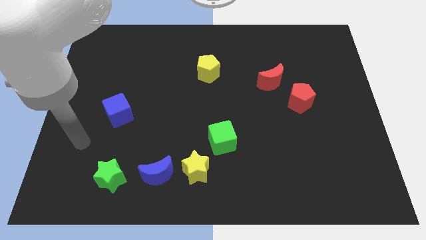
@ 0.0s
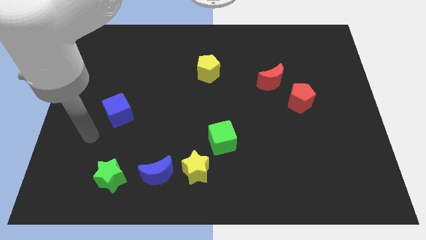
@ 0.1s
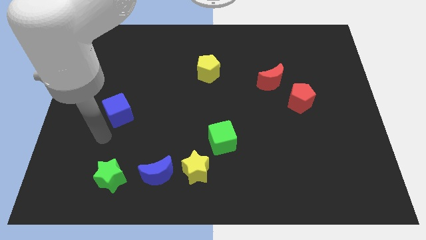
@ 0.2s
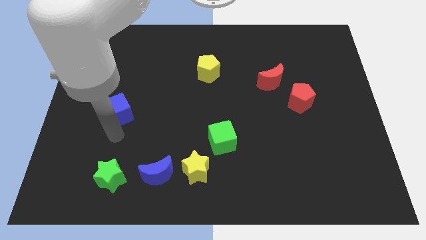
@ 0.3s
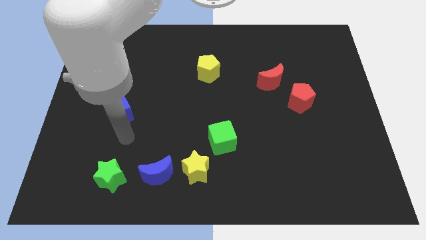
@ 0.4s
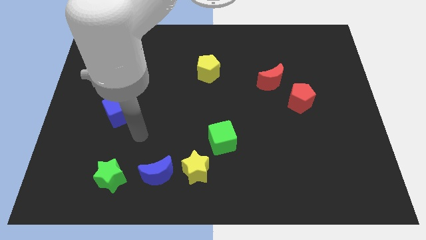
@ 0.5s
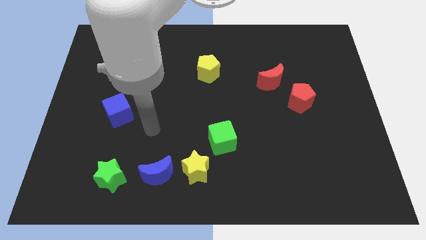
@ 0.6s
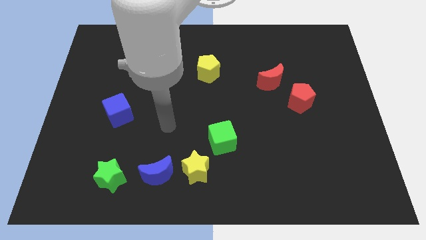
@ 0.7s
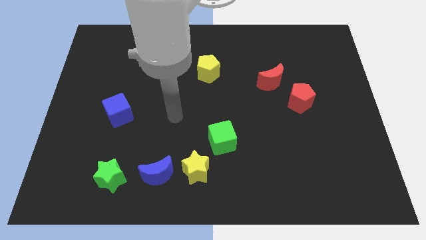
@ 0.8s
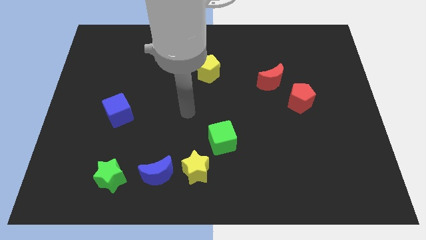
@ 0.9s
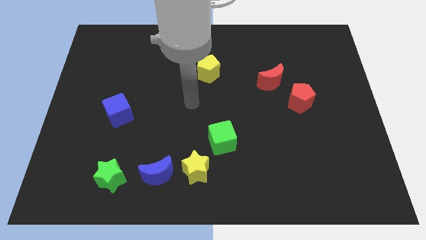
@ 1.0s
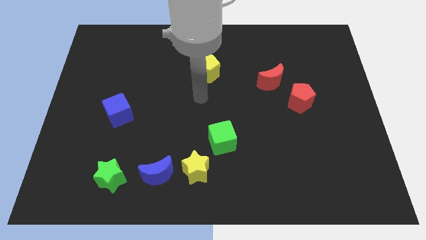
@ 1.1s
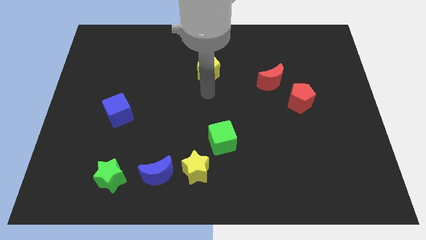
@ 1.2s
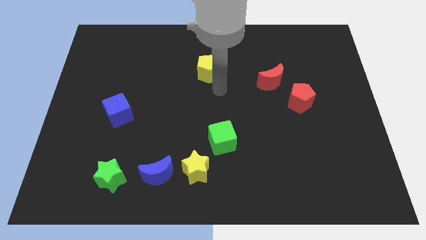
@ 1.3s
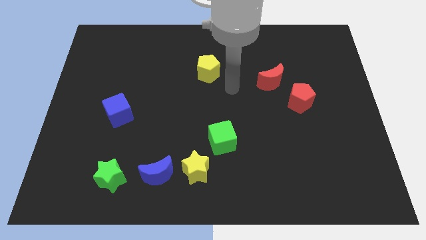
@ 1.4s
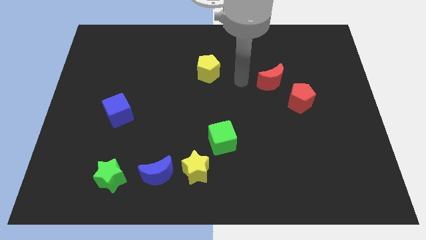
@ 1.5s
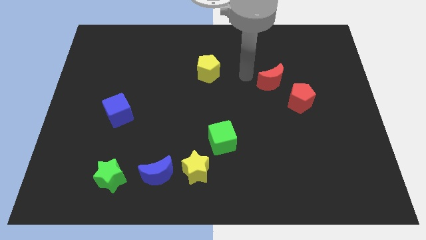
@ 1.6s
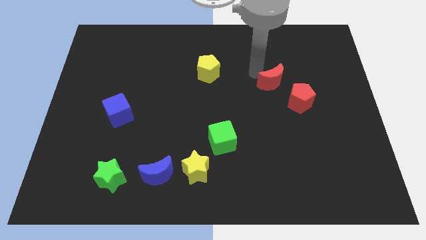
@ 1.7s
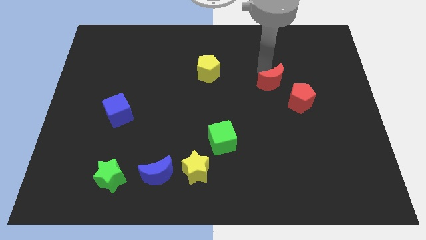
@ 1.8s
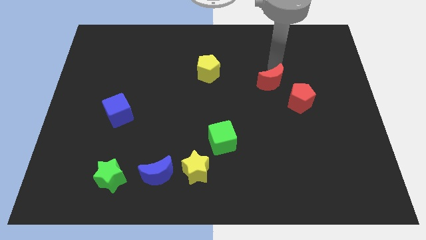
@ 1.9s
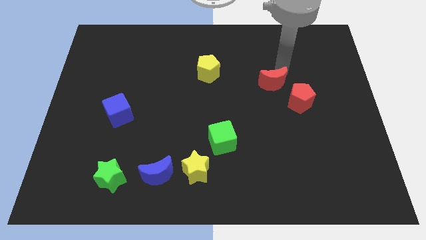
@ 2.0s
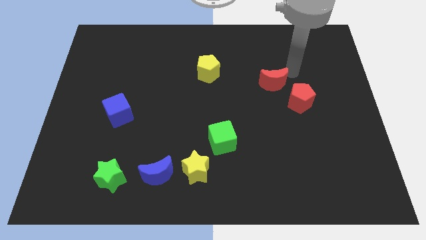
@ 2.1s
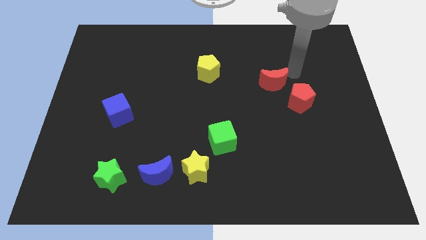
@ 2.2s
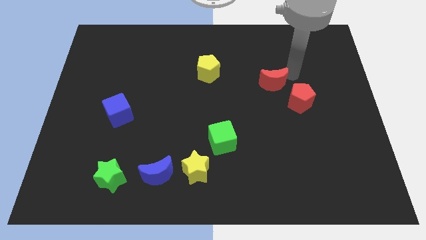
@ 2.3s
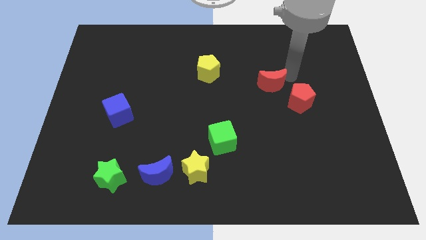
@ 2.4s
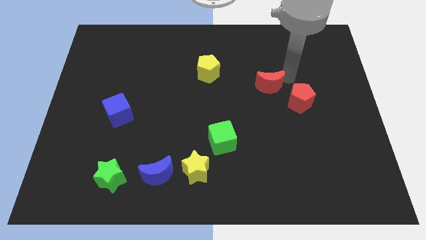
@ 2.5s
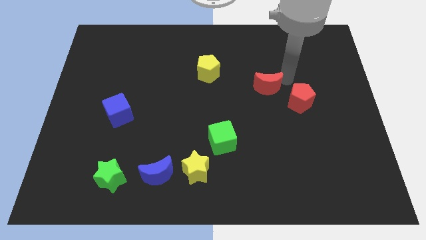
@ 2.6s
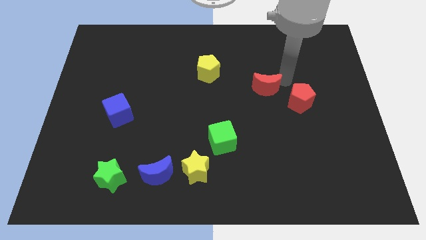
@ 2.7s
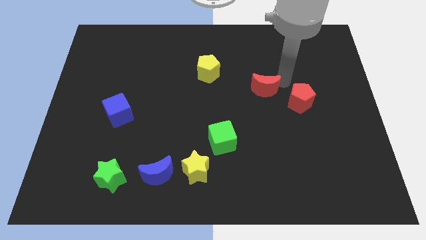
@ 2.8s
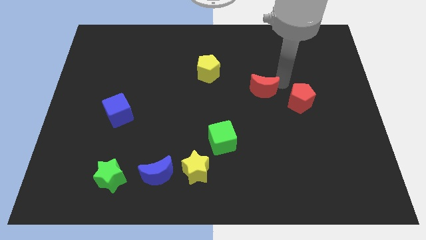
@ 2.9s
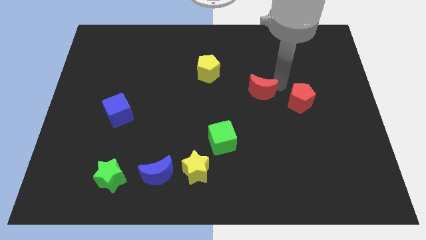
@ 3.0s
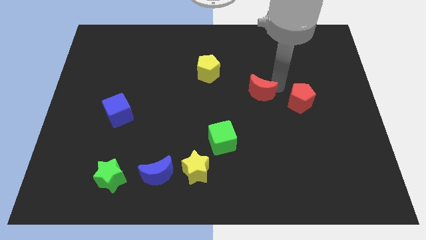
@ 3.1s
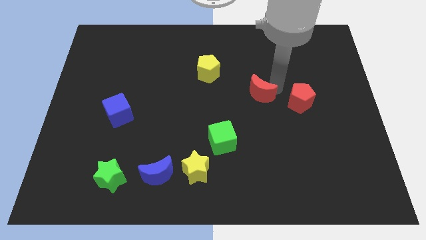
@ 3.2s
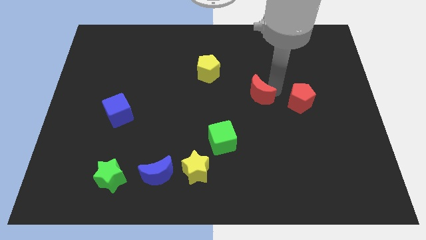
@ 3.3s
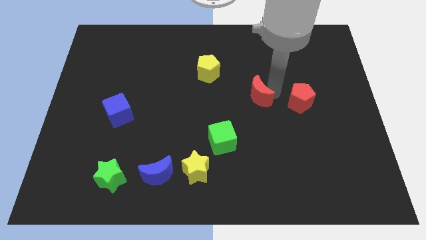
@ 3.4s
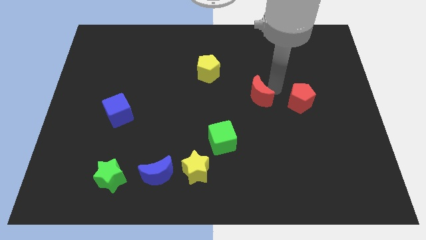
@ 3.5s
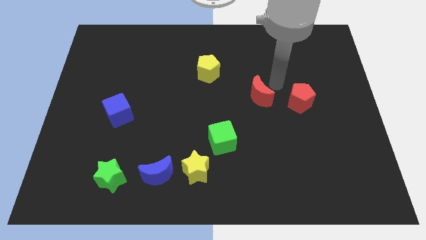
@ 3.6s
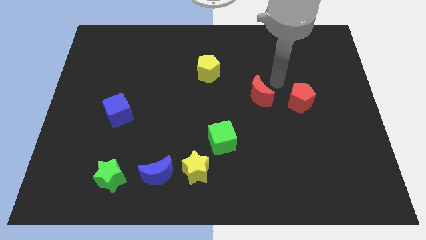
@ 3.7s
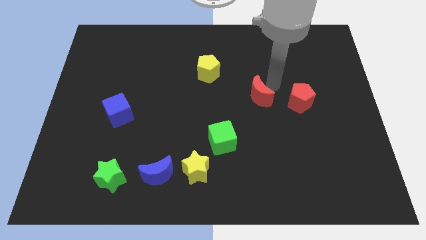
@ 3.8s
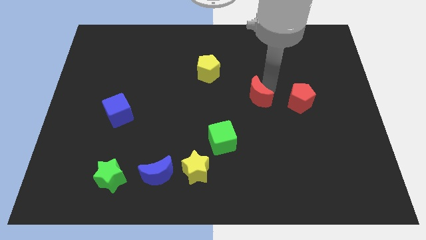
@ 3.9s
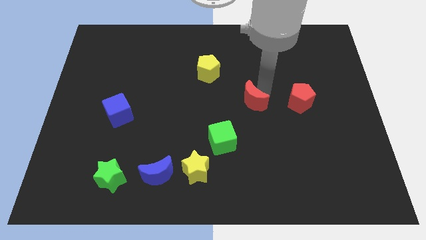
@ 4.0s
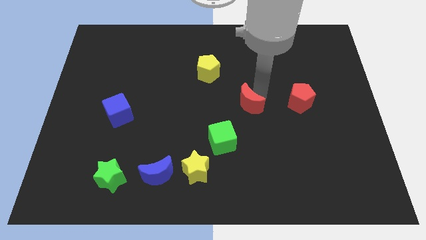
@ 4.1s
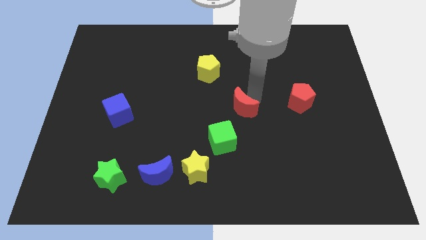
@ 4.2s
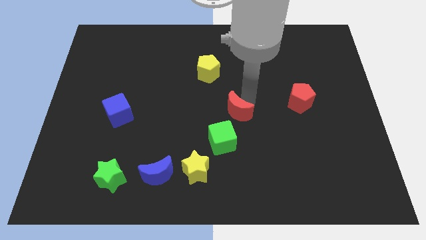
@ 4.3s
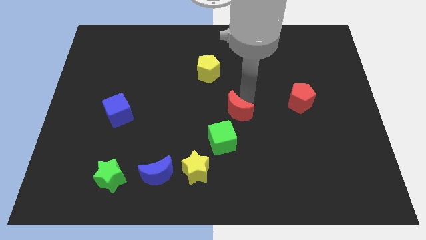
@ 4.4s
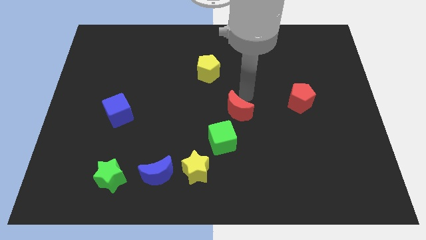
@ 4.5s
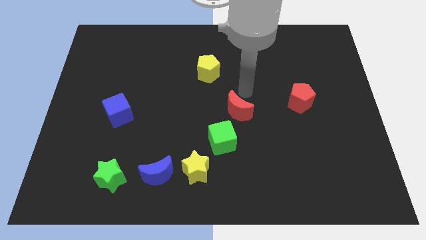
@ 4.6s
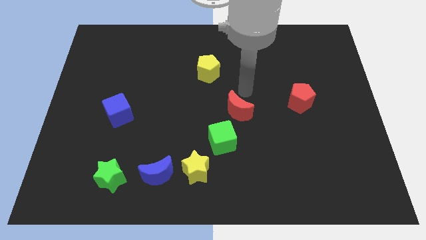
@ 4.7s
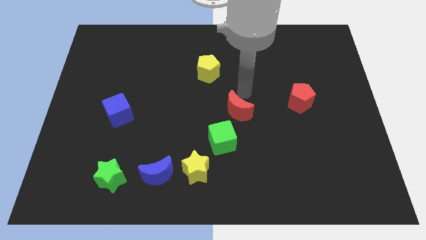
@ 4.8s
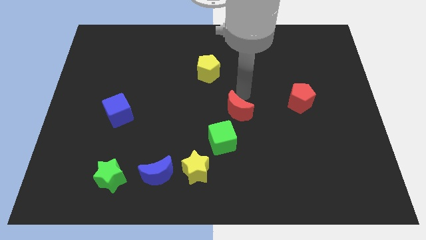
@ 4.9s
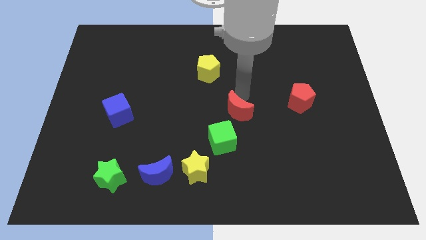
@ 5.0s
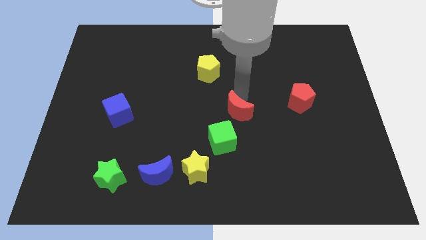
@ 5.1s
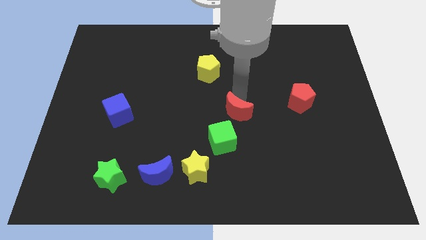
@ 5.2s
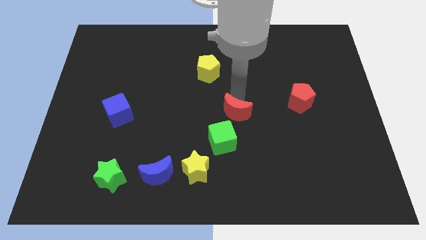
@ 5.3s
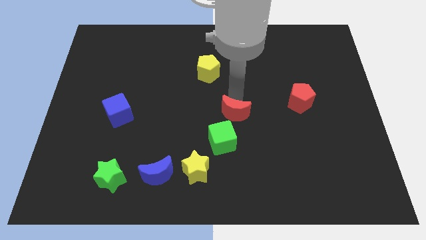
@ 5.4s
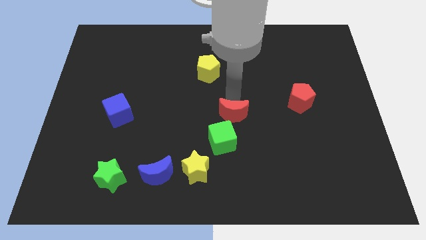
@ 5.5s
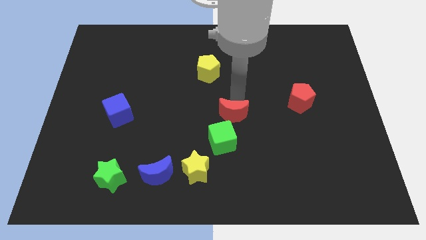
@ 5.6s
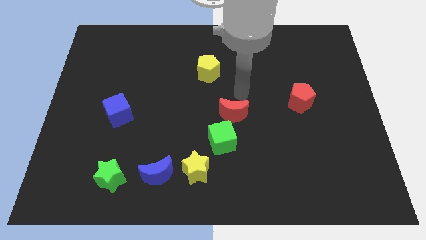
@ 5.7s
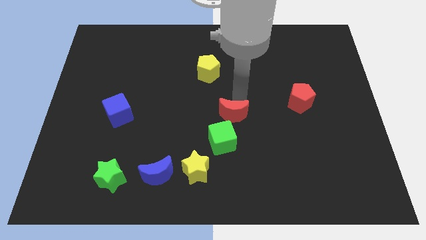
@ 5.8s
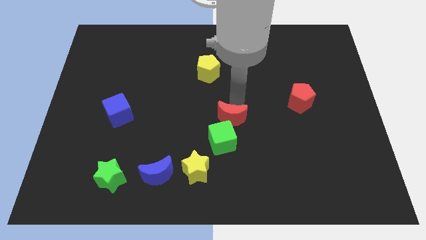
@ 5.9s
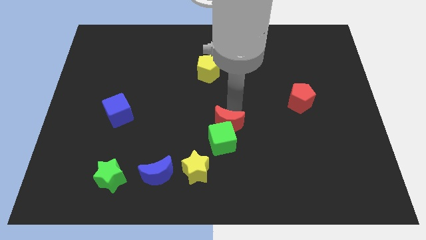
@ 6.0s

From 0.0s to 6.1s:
push the red moon to the green cube

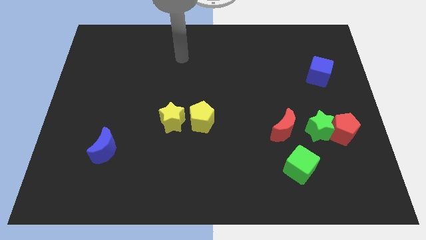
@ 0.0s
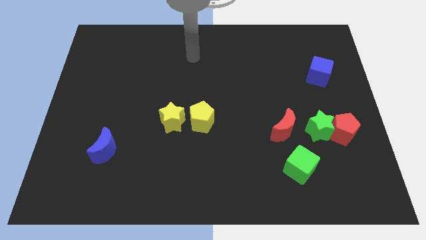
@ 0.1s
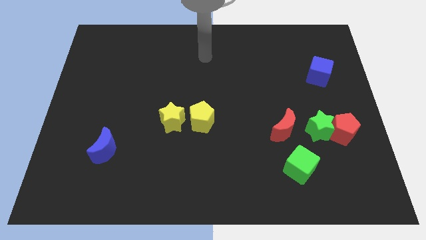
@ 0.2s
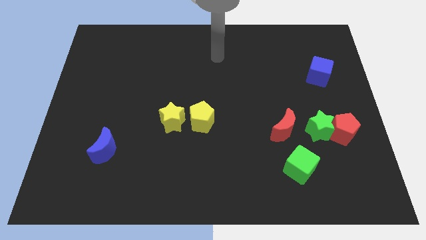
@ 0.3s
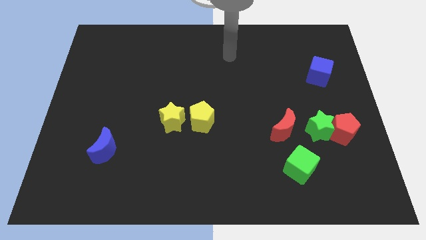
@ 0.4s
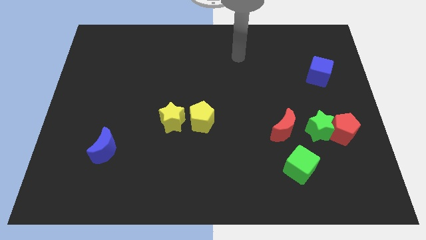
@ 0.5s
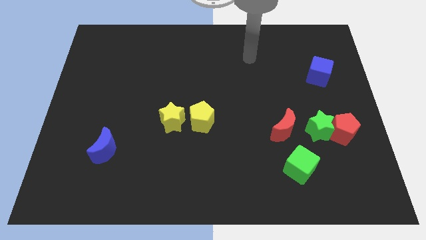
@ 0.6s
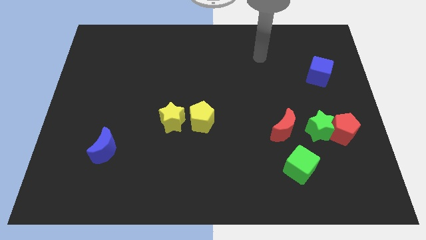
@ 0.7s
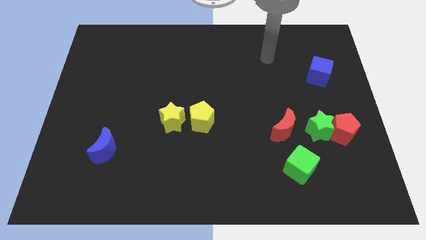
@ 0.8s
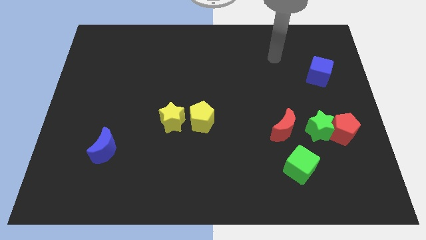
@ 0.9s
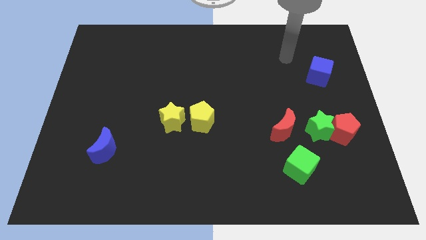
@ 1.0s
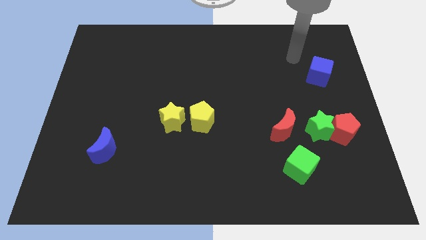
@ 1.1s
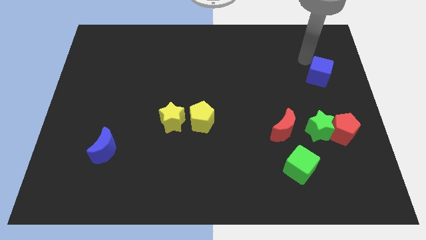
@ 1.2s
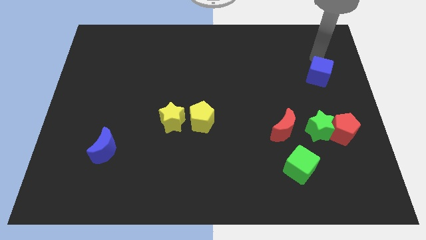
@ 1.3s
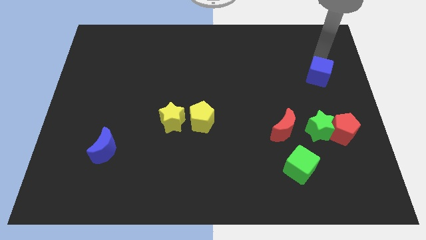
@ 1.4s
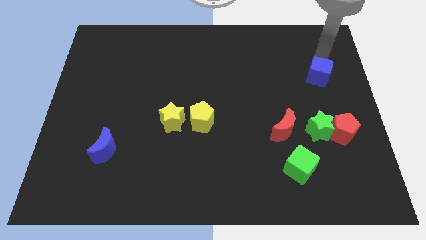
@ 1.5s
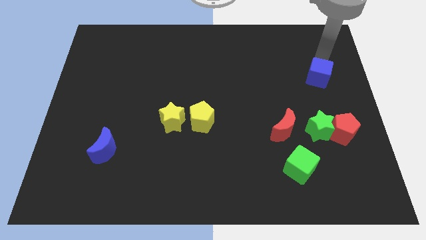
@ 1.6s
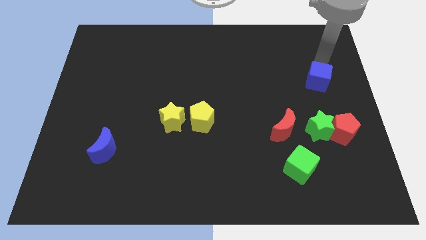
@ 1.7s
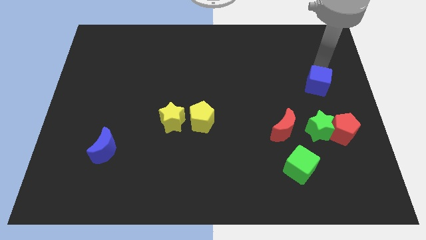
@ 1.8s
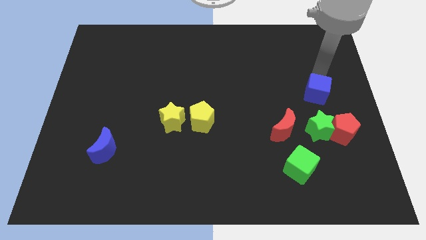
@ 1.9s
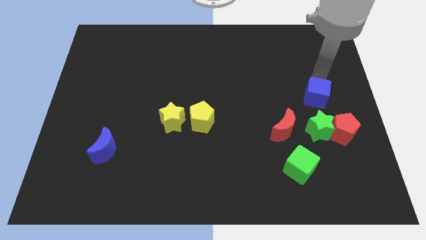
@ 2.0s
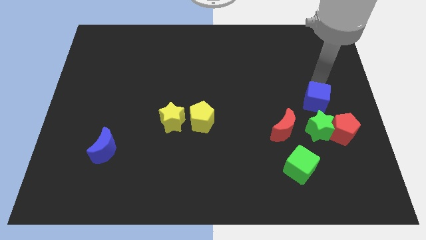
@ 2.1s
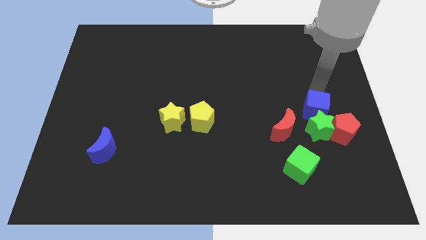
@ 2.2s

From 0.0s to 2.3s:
move the blue cube to the green star
